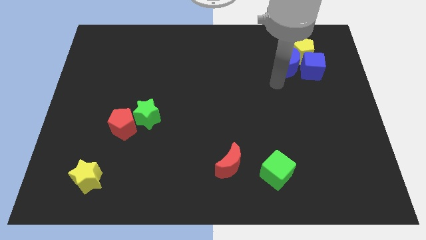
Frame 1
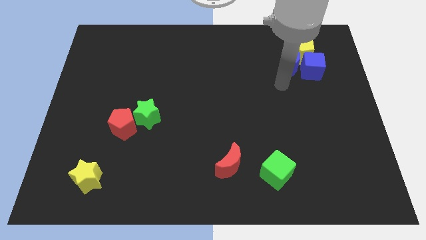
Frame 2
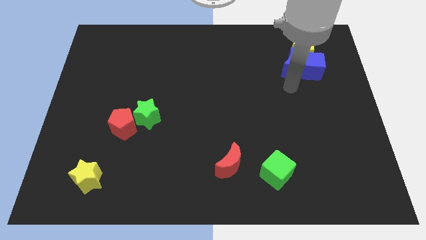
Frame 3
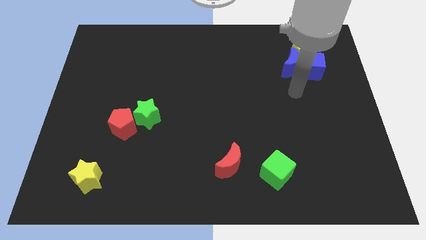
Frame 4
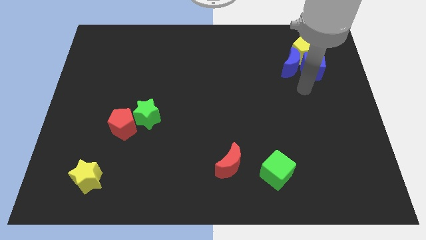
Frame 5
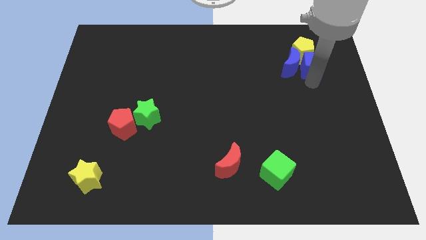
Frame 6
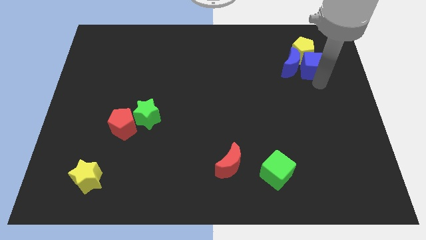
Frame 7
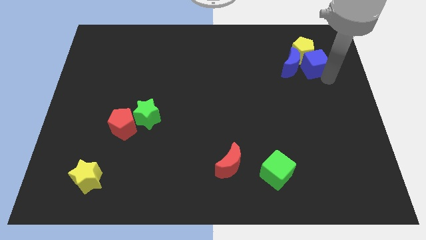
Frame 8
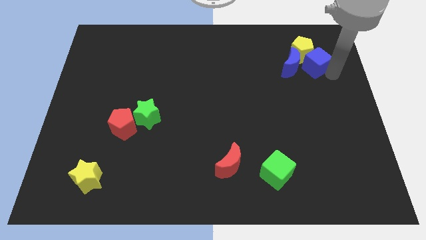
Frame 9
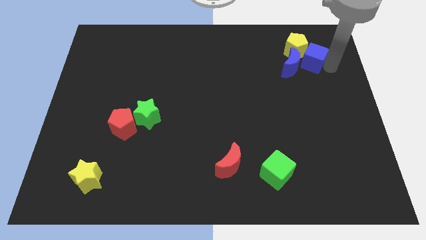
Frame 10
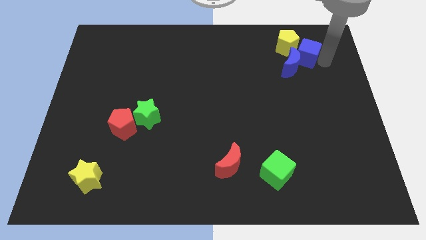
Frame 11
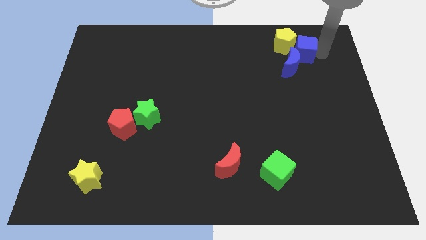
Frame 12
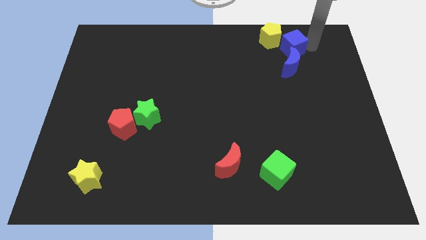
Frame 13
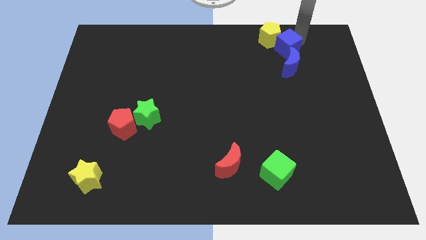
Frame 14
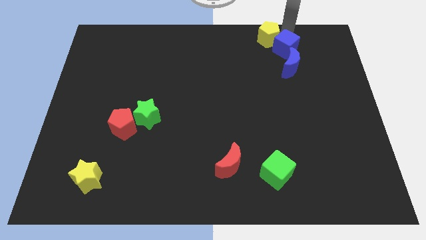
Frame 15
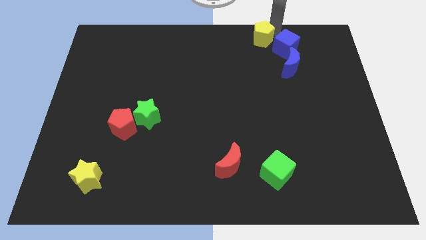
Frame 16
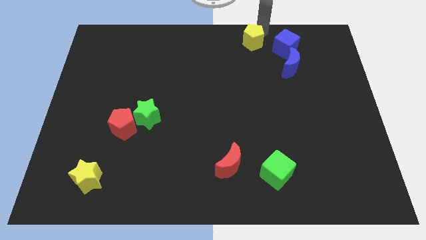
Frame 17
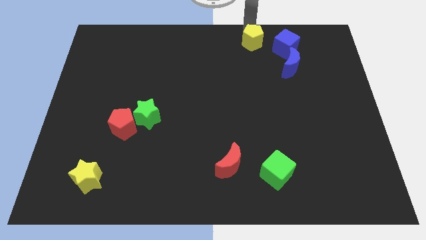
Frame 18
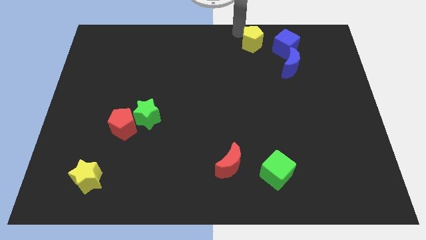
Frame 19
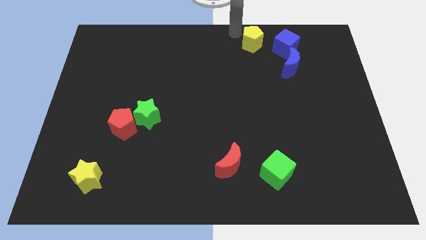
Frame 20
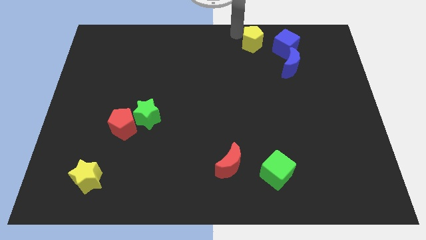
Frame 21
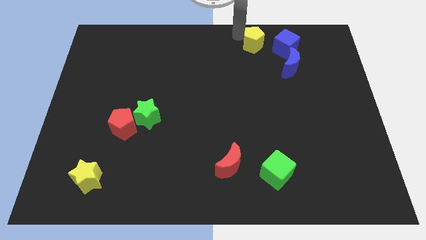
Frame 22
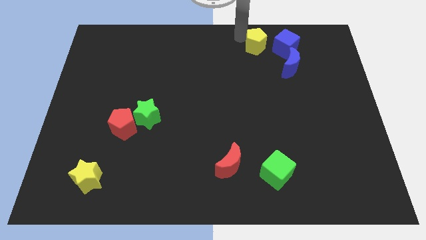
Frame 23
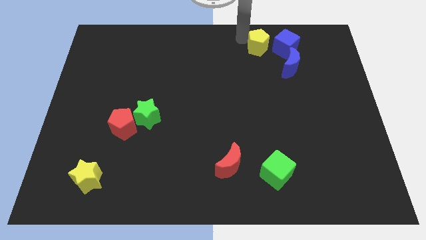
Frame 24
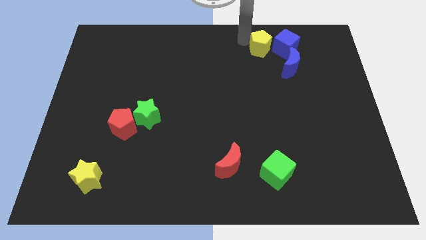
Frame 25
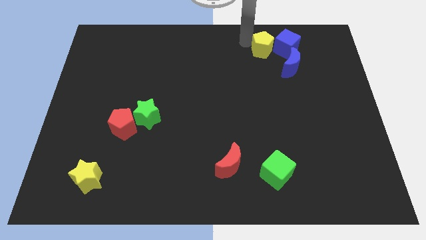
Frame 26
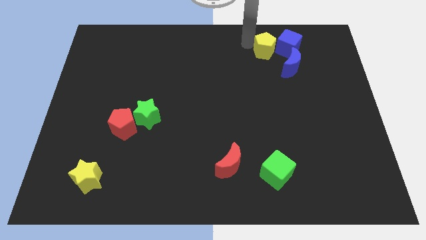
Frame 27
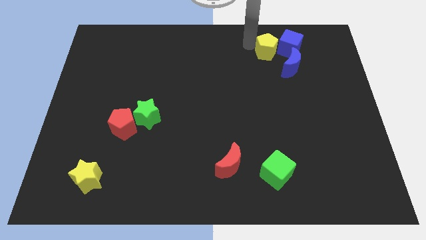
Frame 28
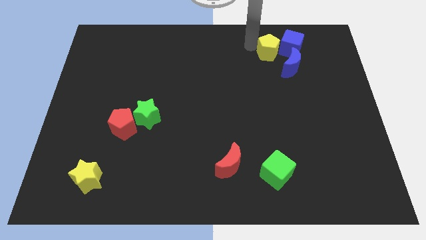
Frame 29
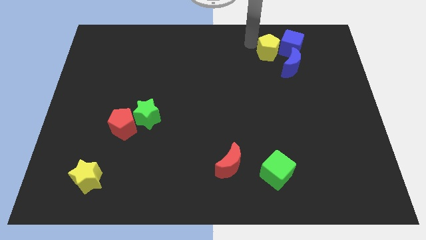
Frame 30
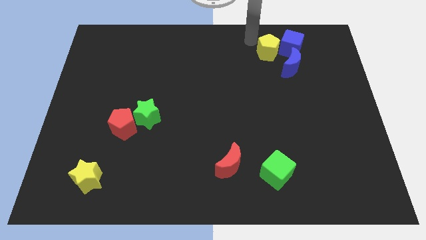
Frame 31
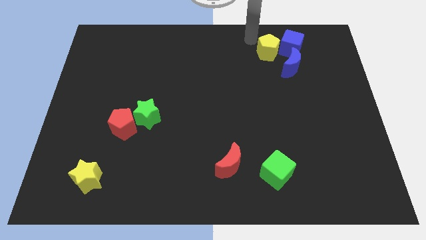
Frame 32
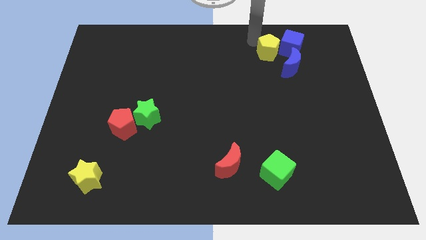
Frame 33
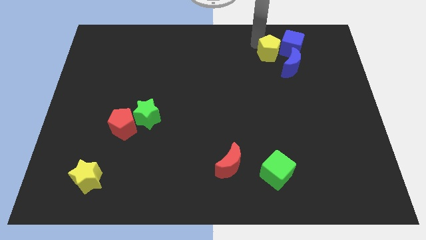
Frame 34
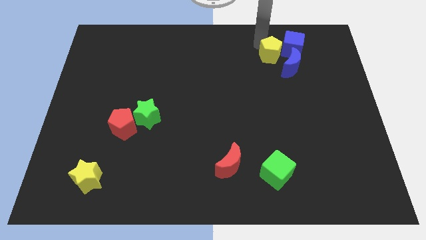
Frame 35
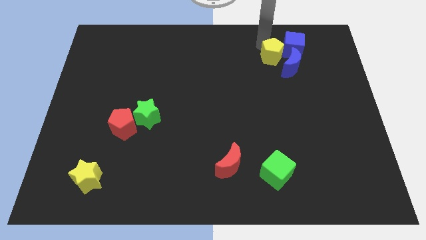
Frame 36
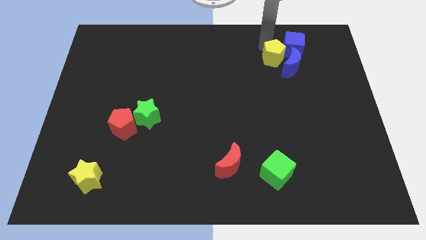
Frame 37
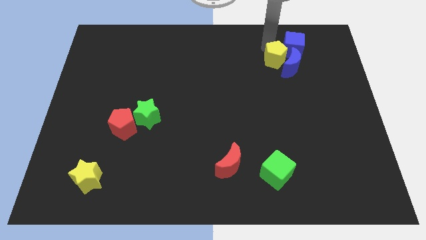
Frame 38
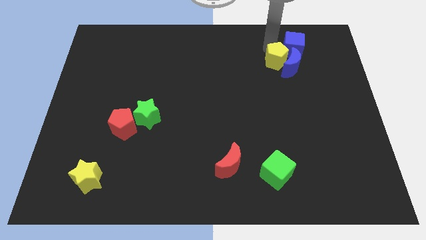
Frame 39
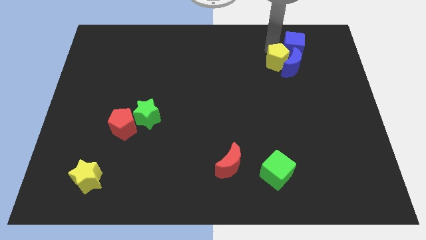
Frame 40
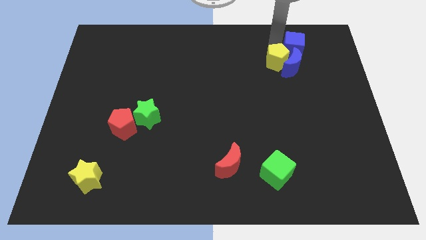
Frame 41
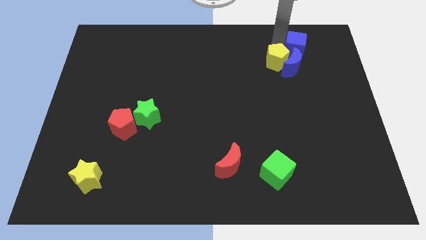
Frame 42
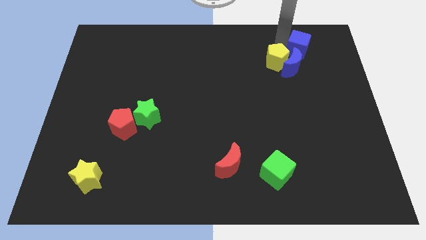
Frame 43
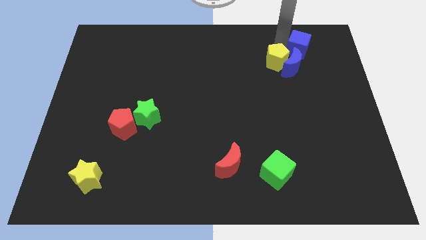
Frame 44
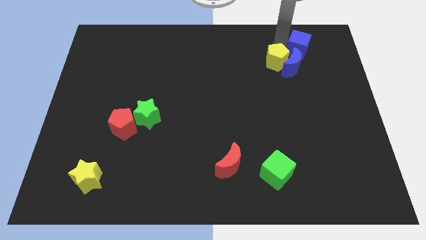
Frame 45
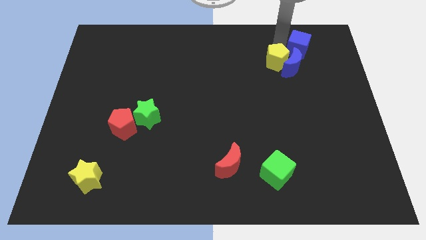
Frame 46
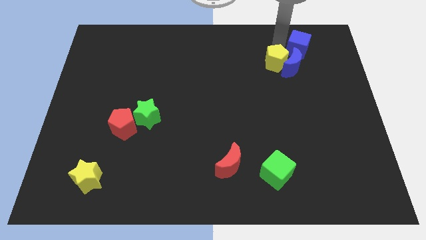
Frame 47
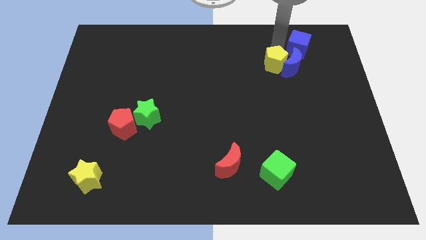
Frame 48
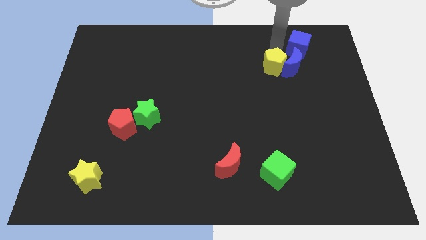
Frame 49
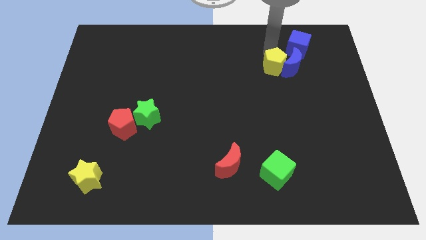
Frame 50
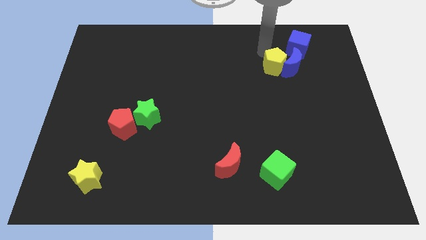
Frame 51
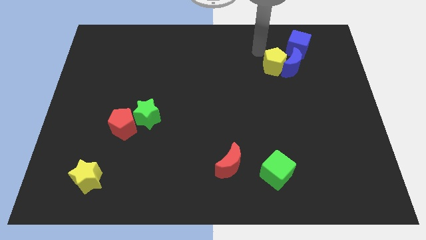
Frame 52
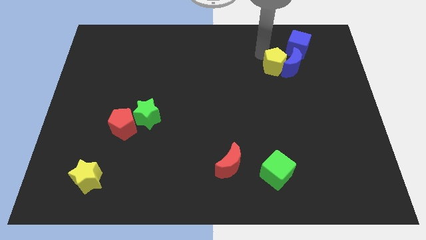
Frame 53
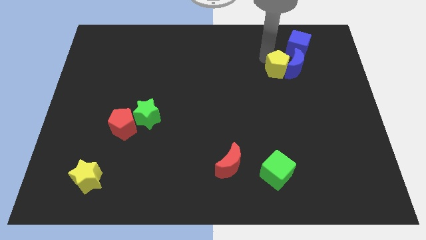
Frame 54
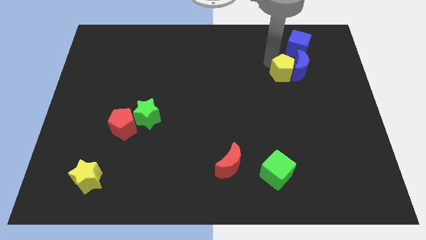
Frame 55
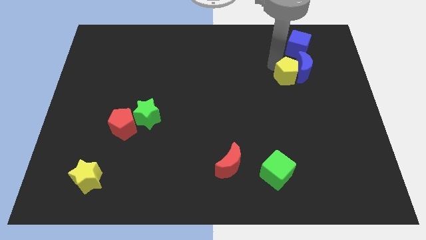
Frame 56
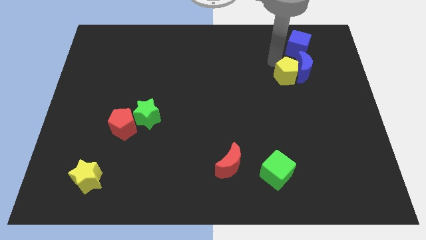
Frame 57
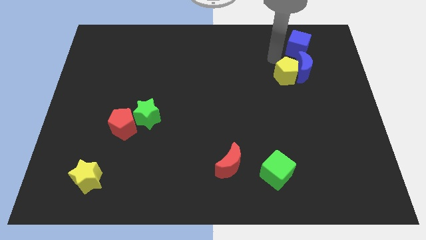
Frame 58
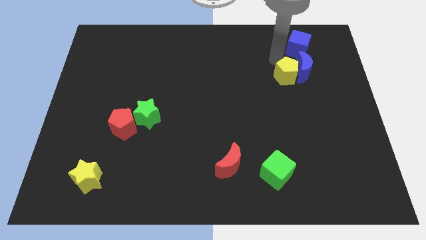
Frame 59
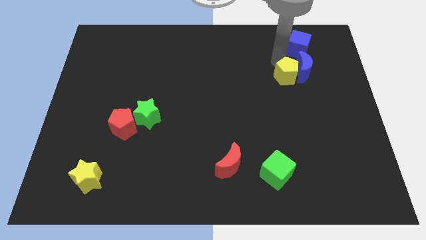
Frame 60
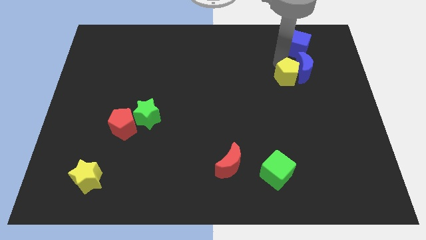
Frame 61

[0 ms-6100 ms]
move the yellow pentagon downwards slightly

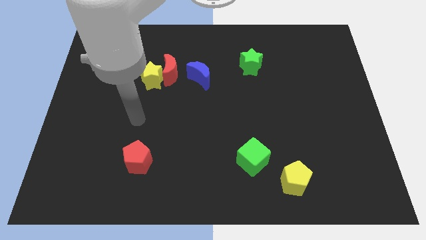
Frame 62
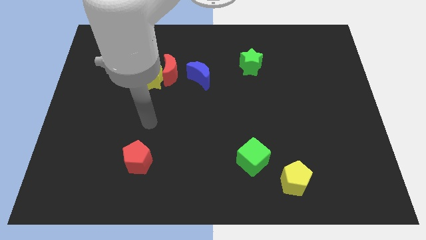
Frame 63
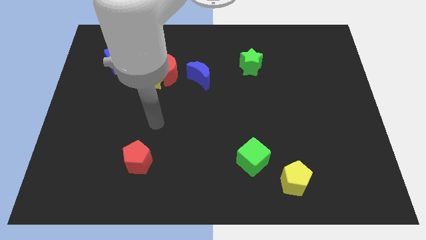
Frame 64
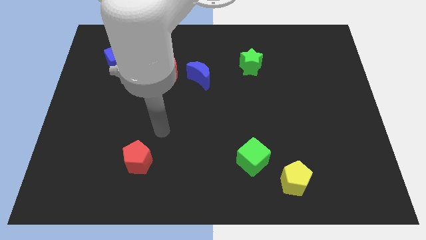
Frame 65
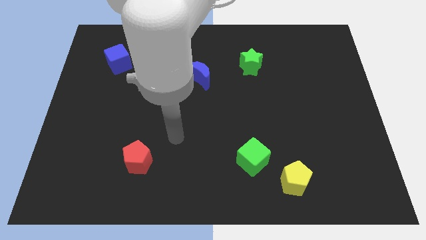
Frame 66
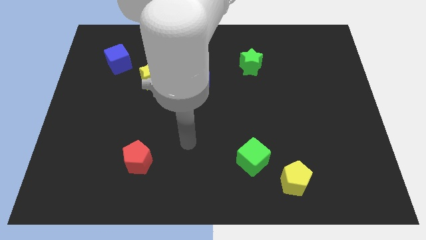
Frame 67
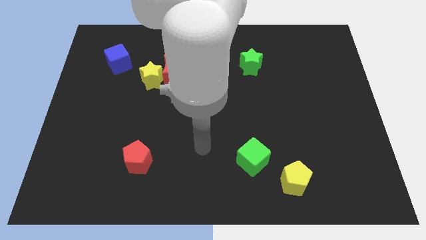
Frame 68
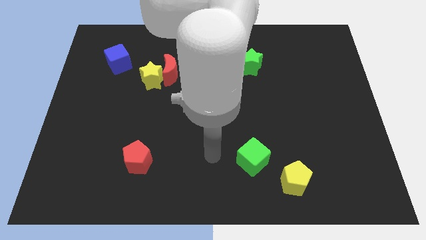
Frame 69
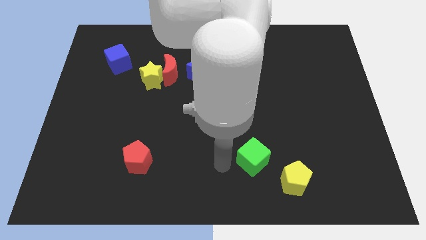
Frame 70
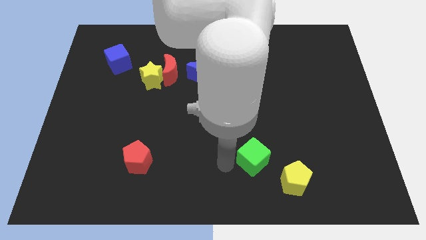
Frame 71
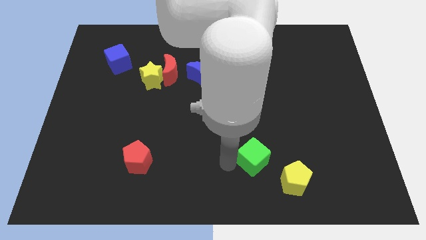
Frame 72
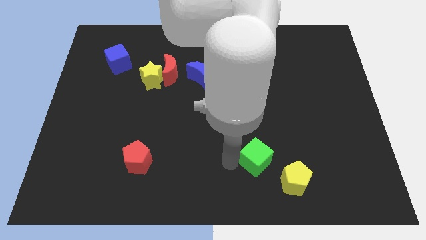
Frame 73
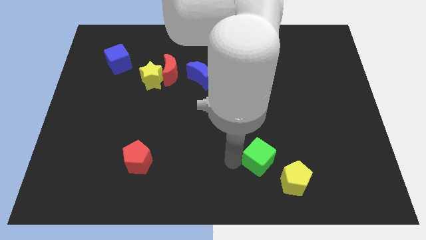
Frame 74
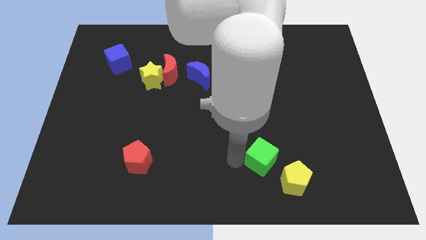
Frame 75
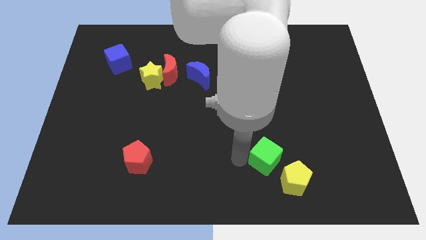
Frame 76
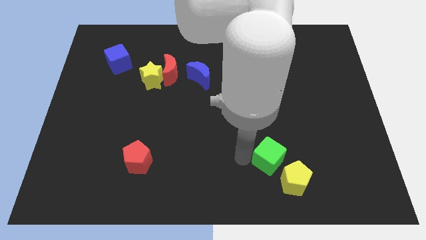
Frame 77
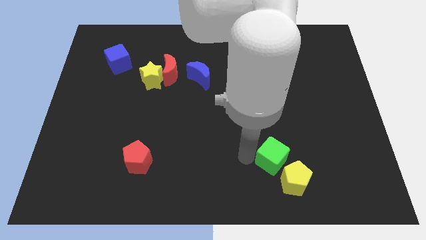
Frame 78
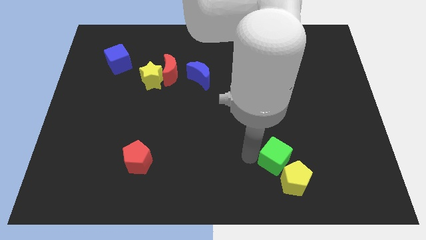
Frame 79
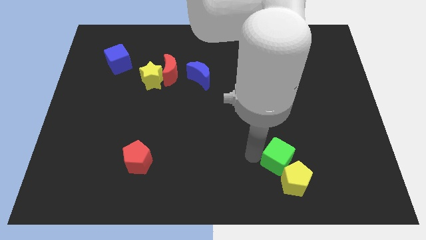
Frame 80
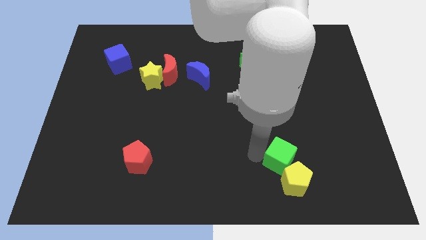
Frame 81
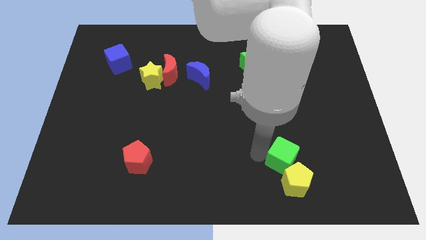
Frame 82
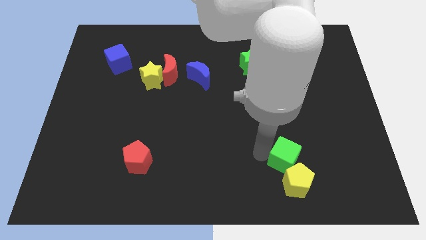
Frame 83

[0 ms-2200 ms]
slightly push the green cube to the right

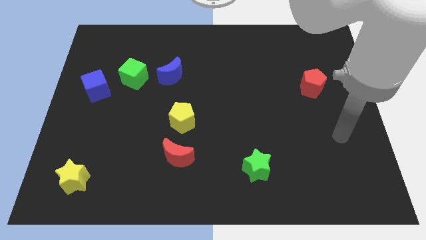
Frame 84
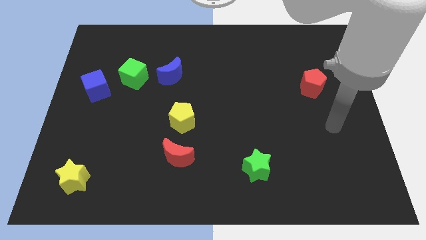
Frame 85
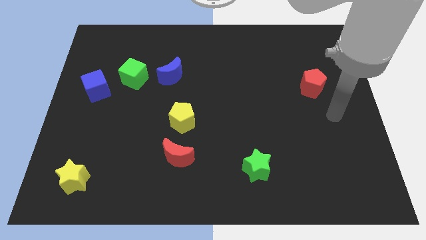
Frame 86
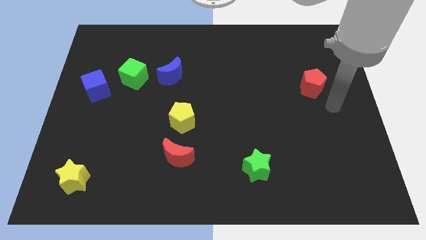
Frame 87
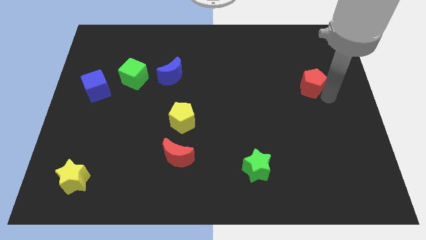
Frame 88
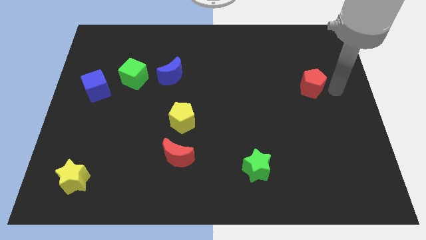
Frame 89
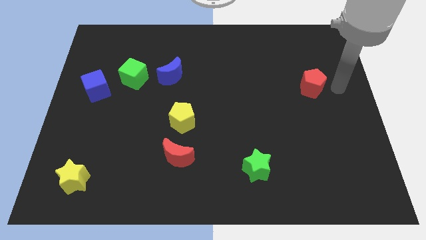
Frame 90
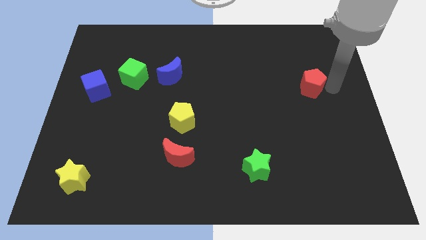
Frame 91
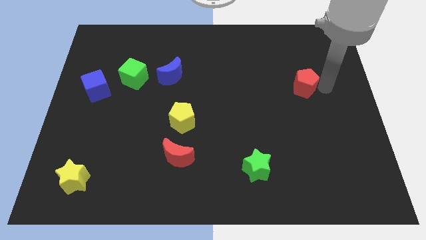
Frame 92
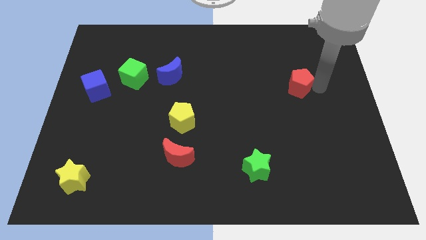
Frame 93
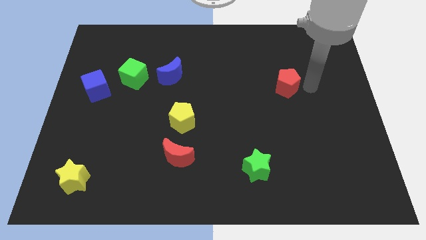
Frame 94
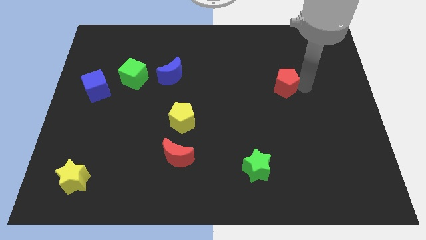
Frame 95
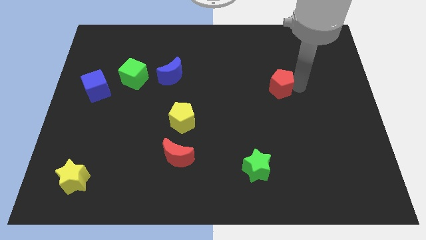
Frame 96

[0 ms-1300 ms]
slightly slide the red pentagon left
